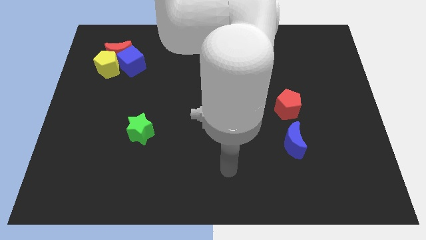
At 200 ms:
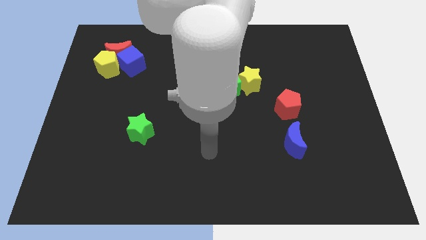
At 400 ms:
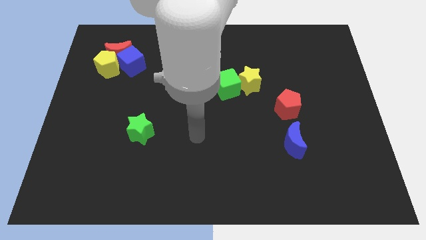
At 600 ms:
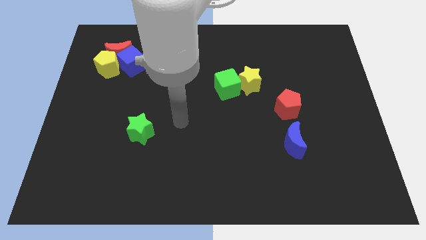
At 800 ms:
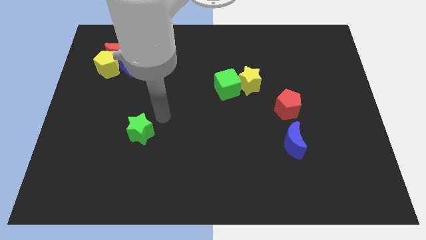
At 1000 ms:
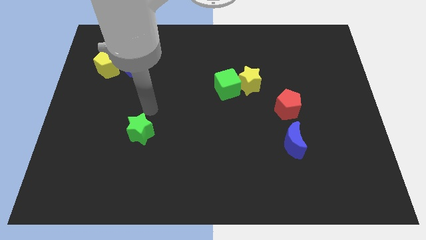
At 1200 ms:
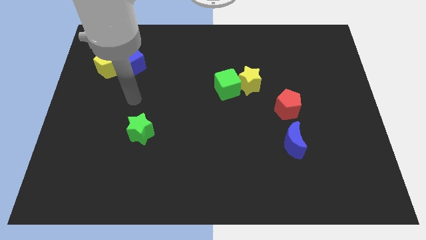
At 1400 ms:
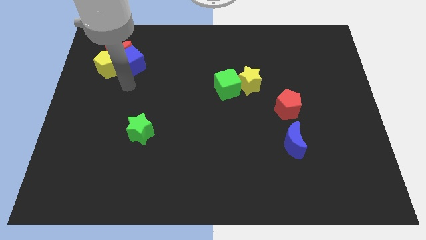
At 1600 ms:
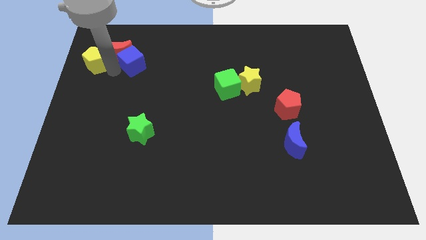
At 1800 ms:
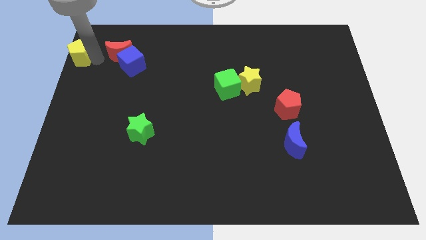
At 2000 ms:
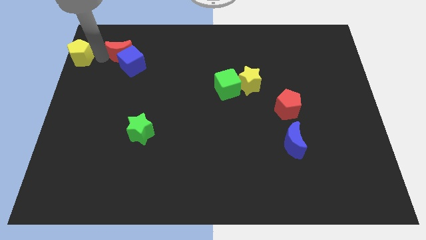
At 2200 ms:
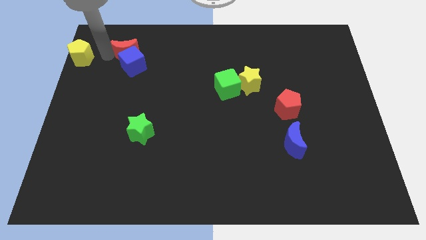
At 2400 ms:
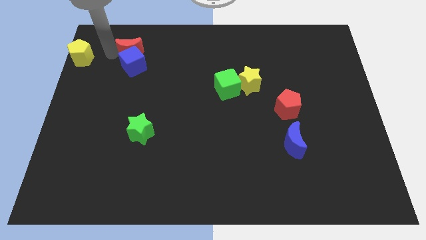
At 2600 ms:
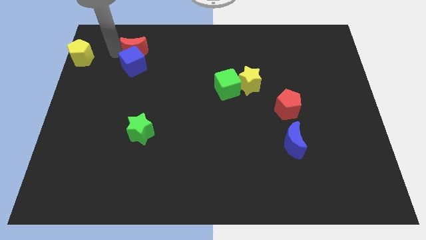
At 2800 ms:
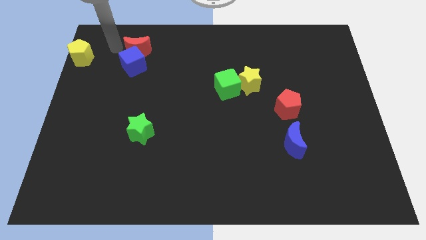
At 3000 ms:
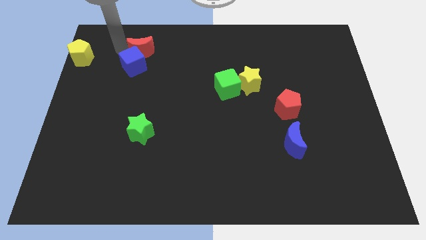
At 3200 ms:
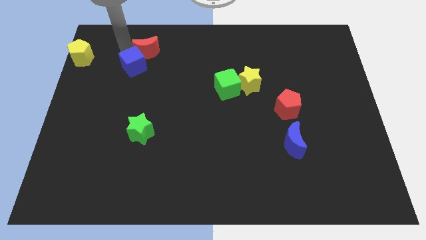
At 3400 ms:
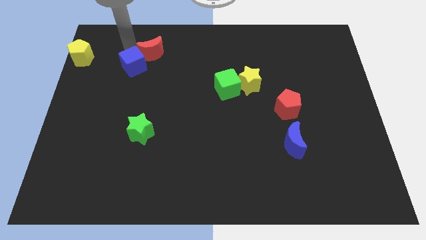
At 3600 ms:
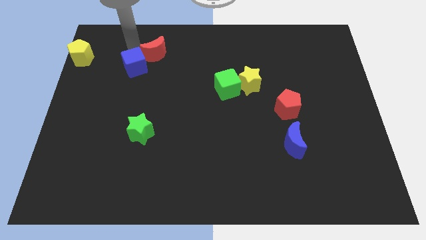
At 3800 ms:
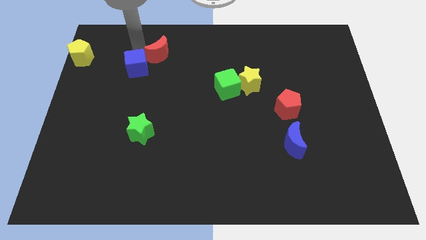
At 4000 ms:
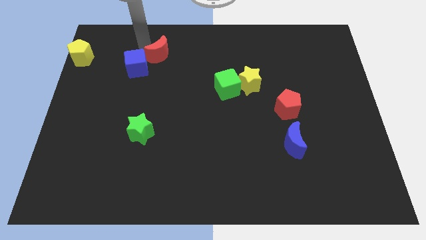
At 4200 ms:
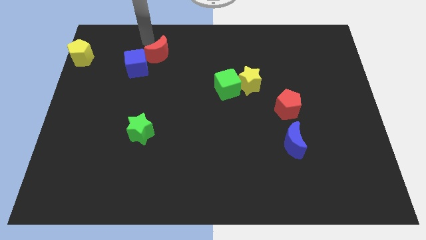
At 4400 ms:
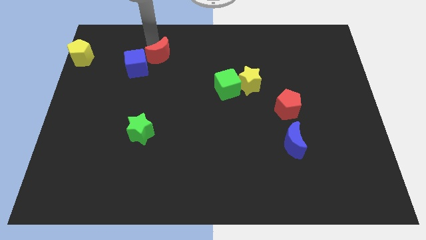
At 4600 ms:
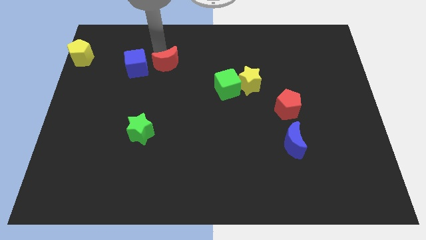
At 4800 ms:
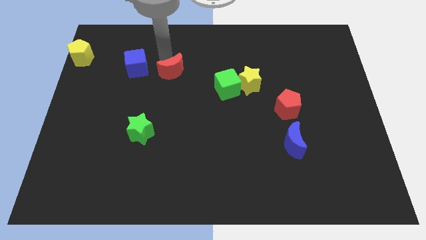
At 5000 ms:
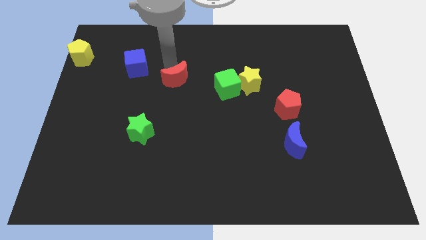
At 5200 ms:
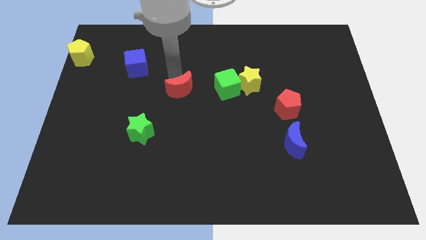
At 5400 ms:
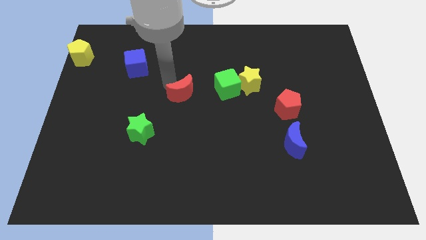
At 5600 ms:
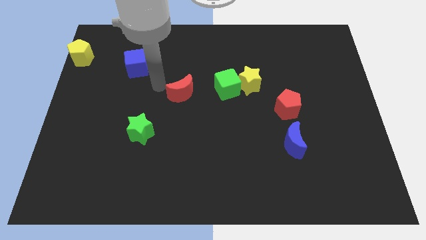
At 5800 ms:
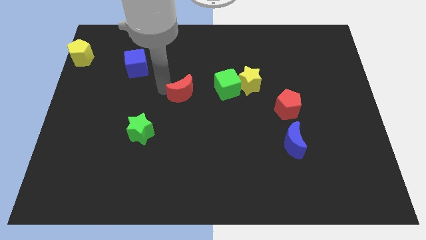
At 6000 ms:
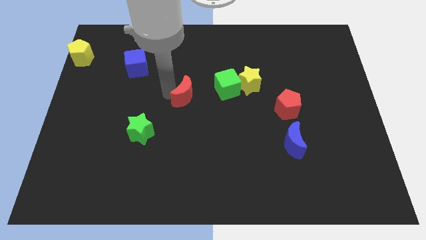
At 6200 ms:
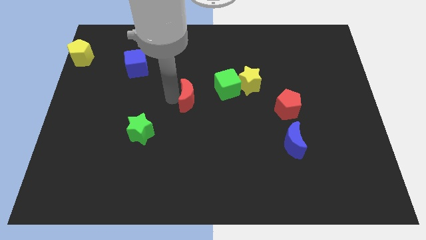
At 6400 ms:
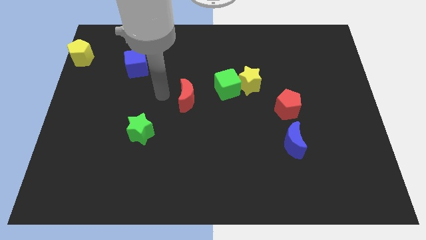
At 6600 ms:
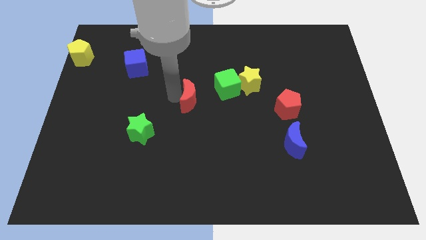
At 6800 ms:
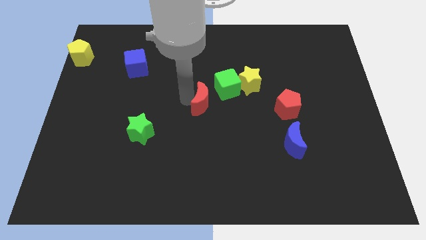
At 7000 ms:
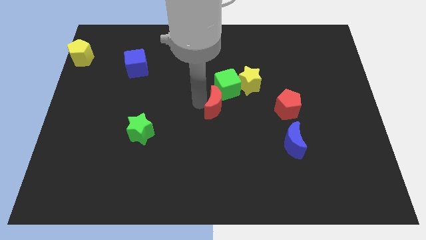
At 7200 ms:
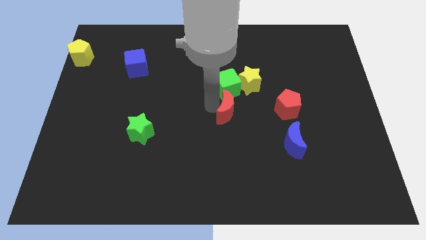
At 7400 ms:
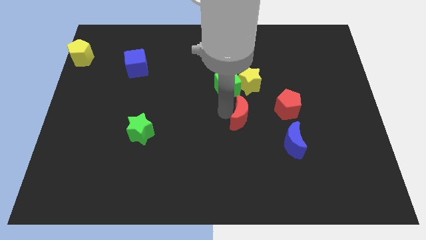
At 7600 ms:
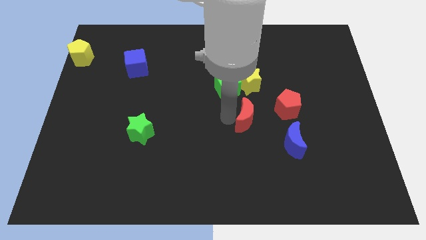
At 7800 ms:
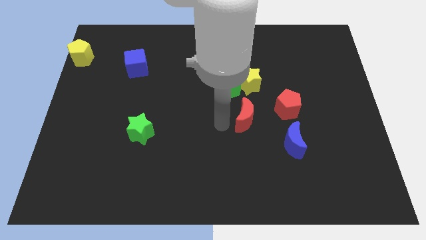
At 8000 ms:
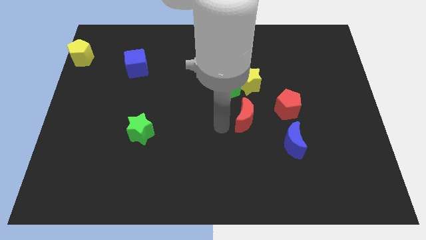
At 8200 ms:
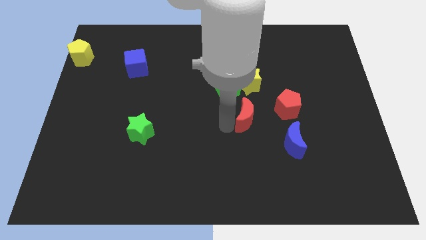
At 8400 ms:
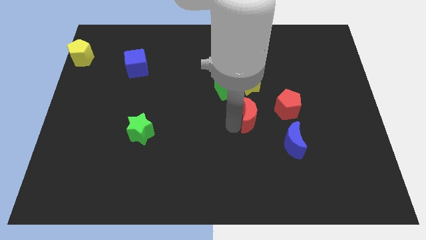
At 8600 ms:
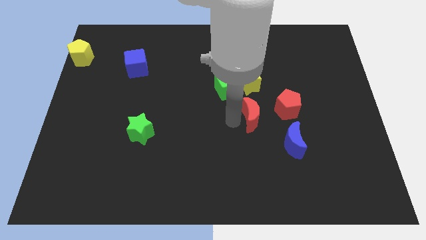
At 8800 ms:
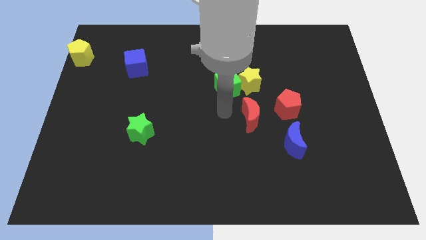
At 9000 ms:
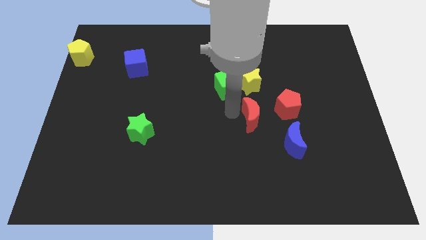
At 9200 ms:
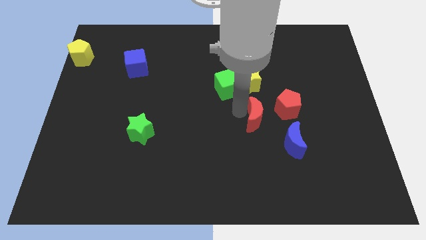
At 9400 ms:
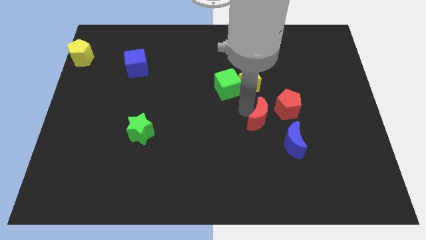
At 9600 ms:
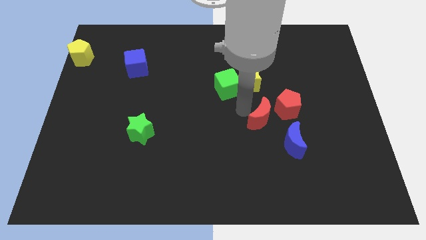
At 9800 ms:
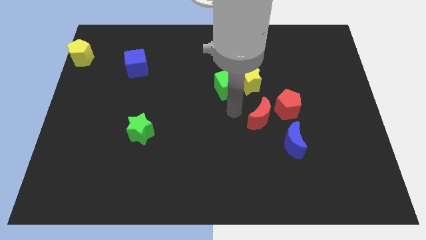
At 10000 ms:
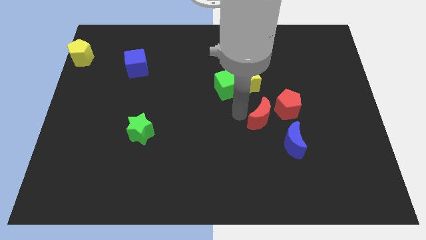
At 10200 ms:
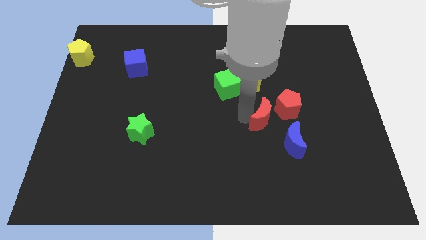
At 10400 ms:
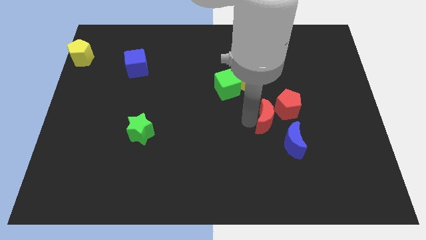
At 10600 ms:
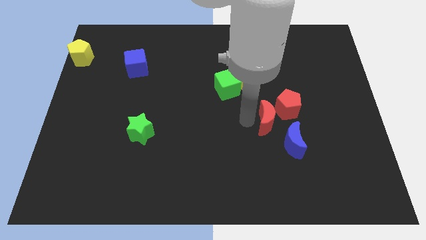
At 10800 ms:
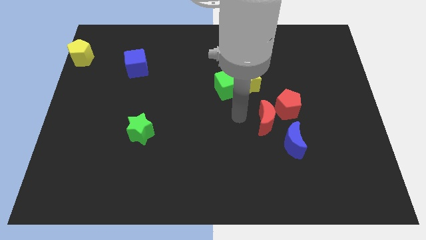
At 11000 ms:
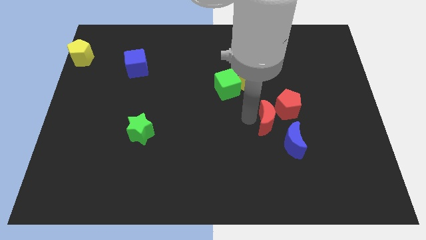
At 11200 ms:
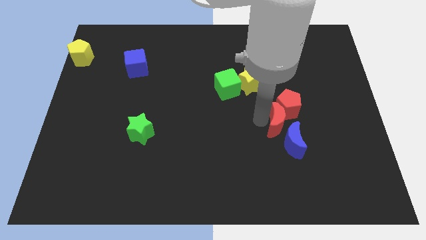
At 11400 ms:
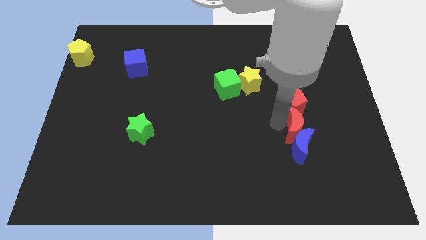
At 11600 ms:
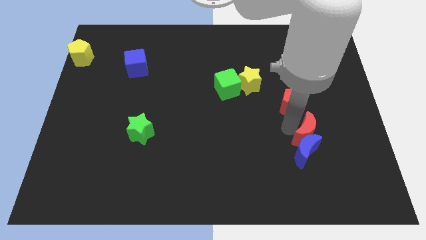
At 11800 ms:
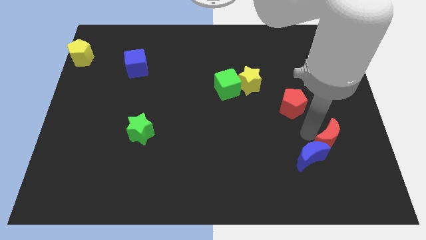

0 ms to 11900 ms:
put the red moon right of the blue moon

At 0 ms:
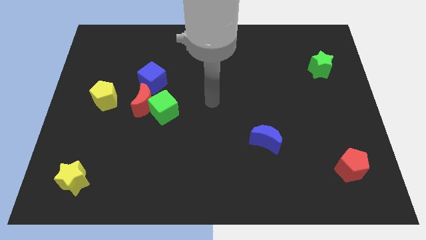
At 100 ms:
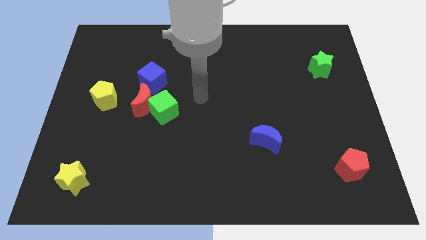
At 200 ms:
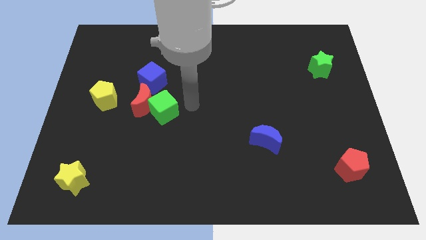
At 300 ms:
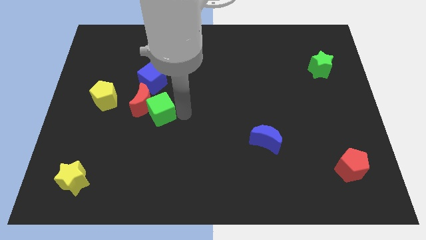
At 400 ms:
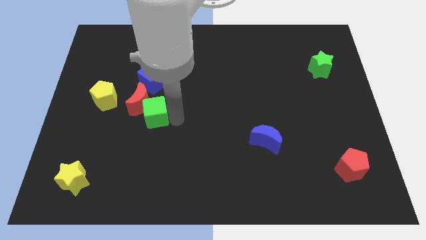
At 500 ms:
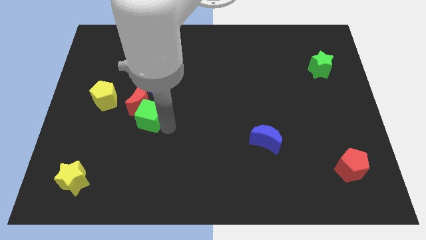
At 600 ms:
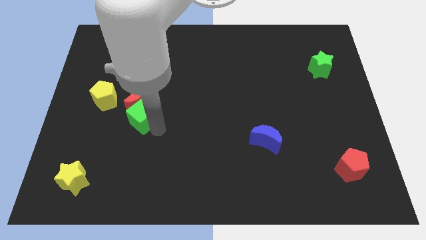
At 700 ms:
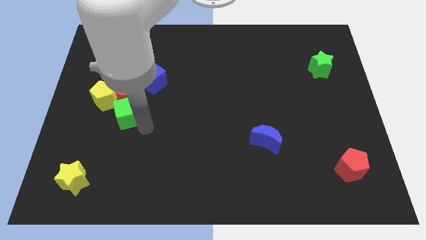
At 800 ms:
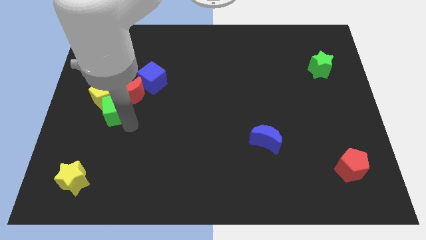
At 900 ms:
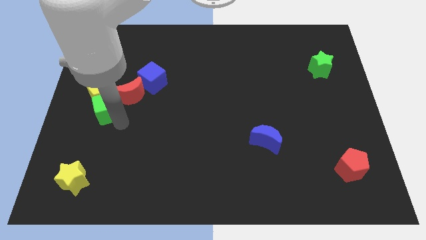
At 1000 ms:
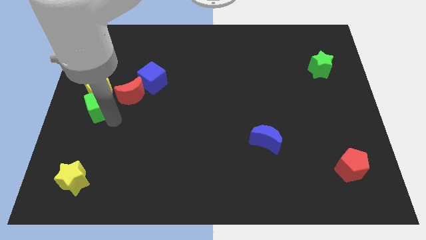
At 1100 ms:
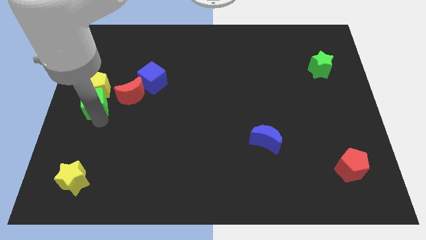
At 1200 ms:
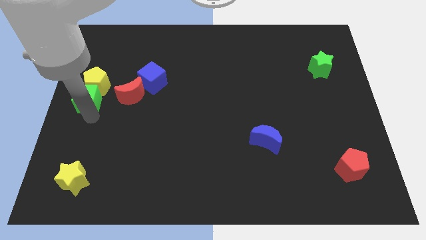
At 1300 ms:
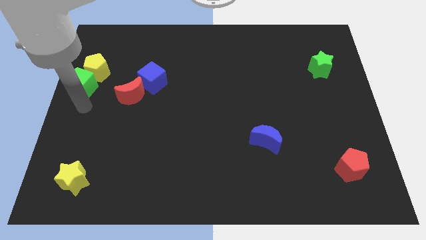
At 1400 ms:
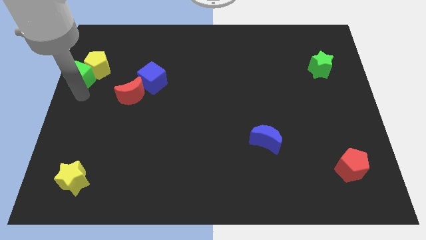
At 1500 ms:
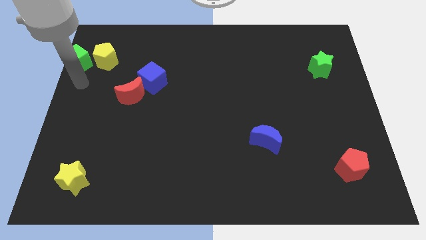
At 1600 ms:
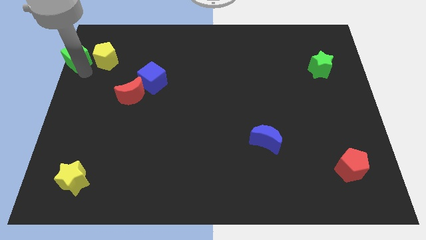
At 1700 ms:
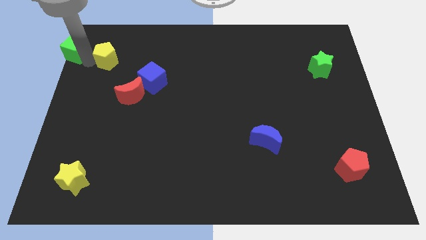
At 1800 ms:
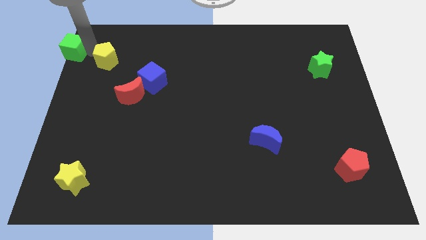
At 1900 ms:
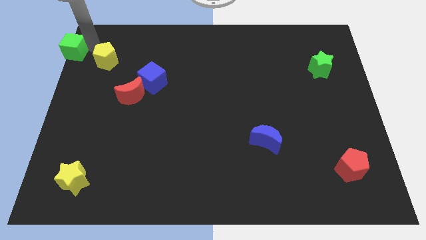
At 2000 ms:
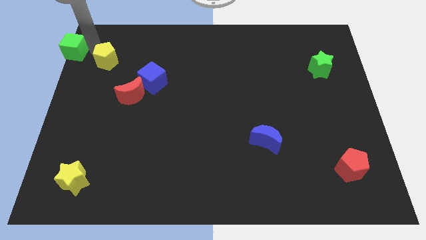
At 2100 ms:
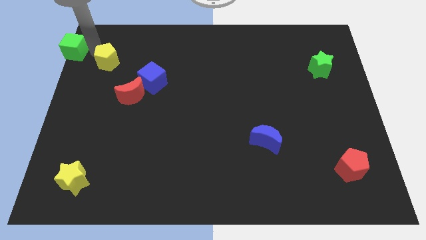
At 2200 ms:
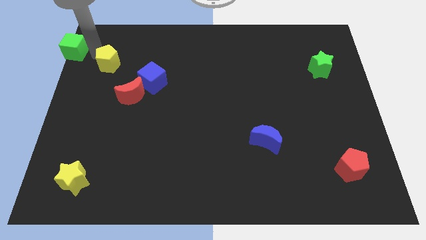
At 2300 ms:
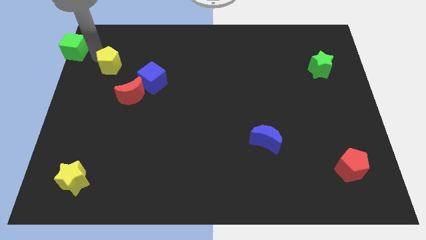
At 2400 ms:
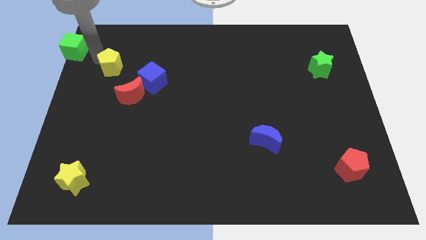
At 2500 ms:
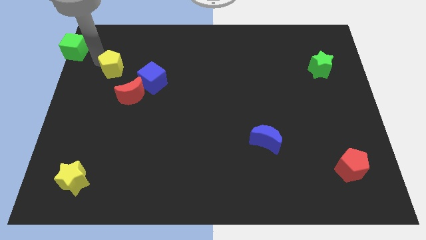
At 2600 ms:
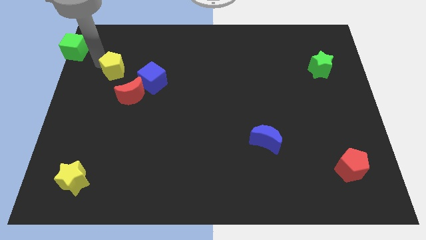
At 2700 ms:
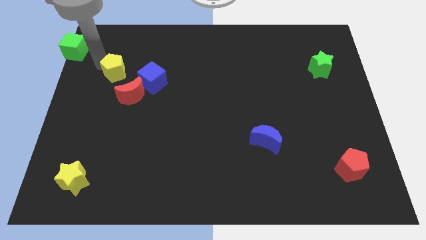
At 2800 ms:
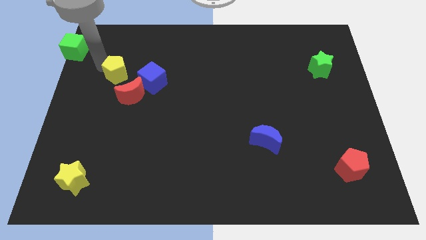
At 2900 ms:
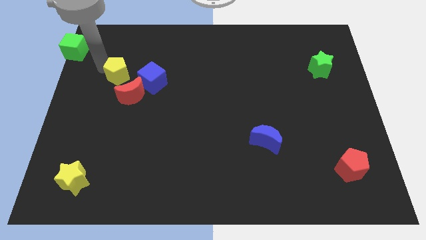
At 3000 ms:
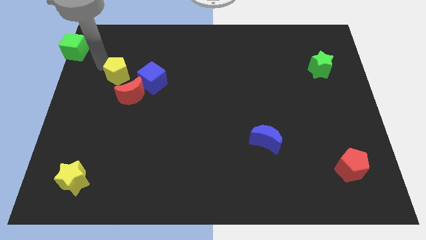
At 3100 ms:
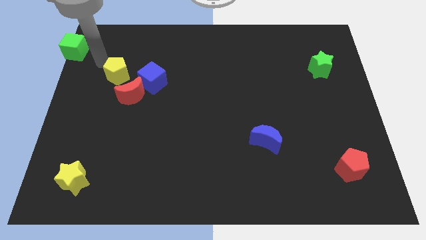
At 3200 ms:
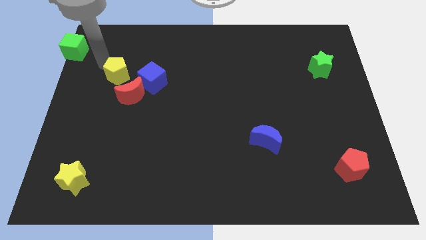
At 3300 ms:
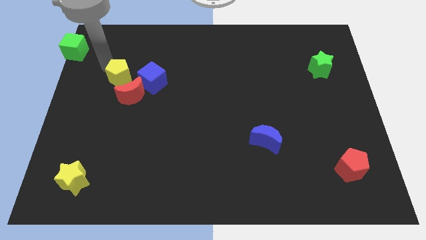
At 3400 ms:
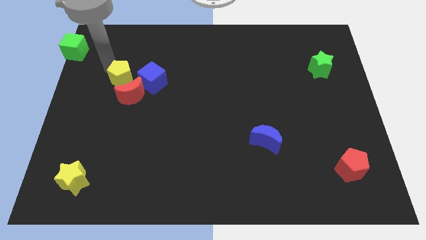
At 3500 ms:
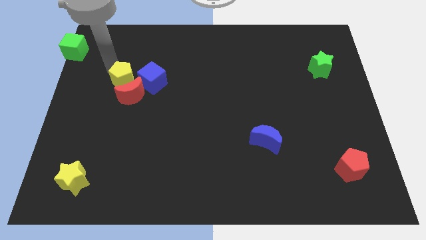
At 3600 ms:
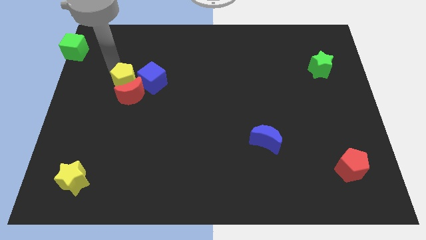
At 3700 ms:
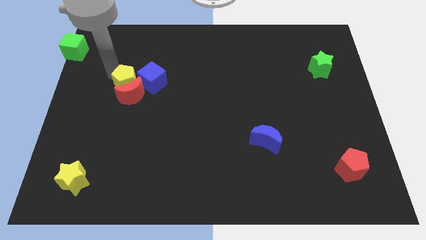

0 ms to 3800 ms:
slide the yellow pentagon diagonally up and to the right of the red moon
